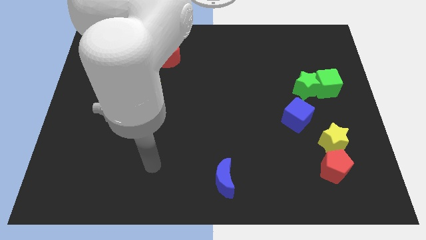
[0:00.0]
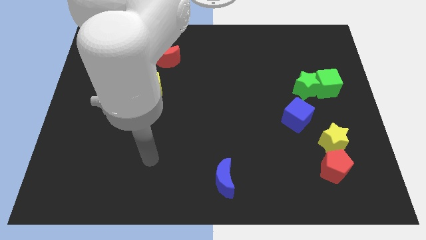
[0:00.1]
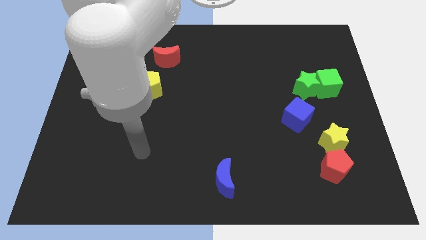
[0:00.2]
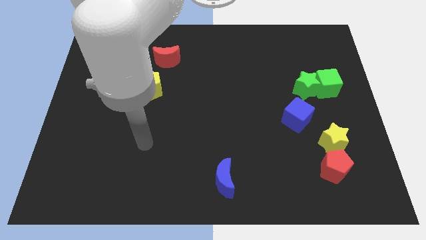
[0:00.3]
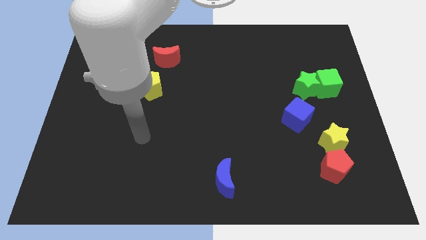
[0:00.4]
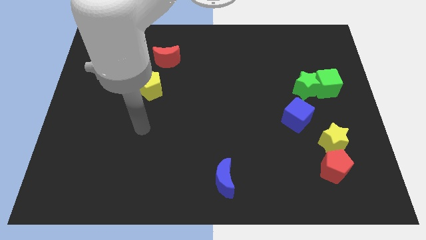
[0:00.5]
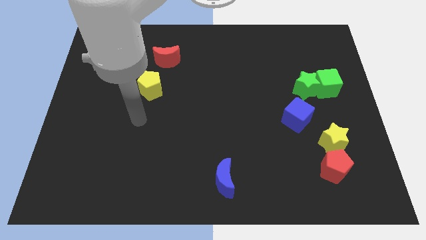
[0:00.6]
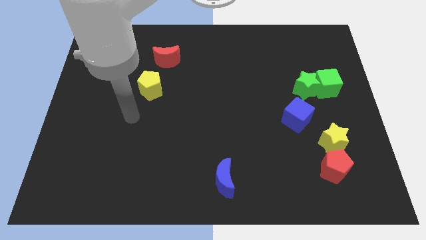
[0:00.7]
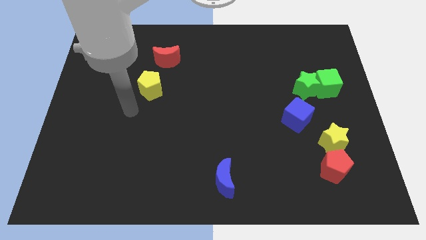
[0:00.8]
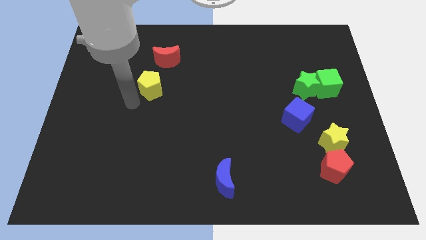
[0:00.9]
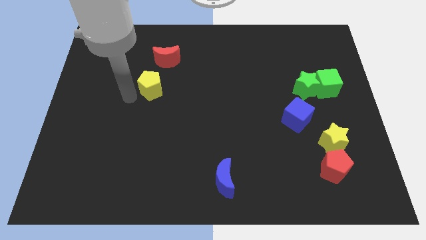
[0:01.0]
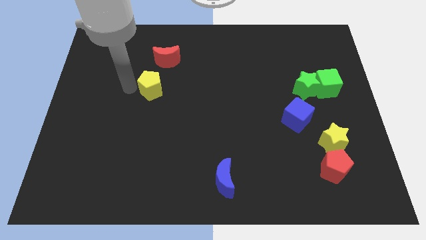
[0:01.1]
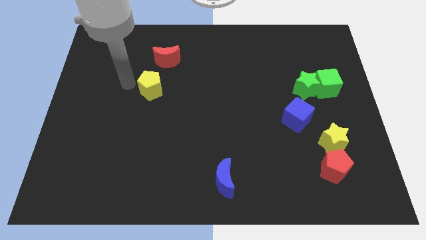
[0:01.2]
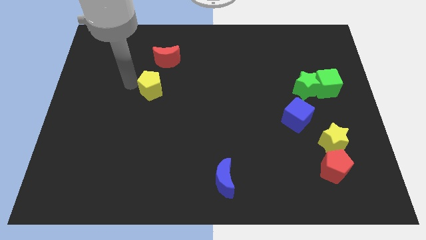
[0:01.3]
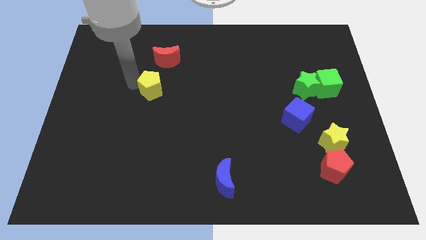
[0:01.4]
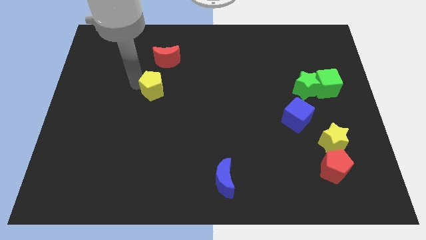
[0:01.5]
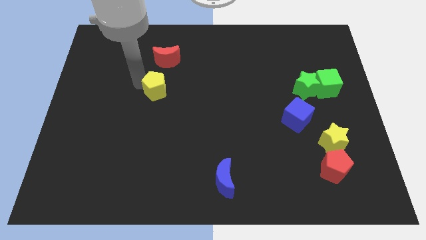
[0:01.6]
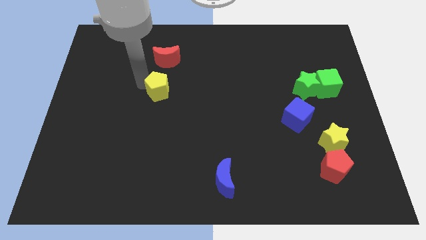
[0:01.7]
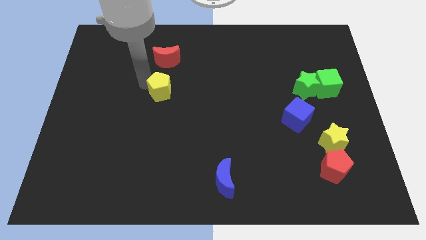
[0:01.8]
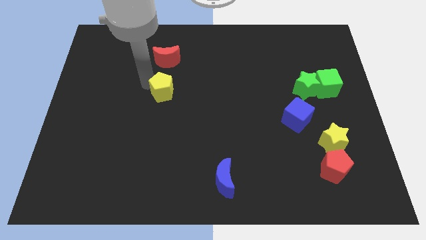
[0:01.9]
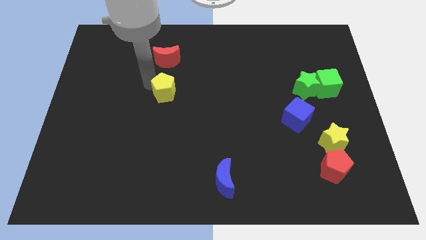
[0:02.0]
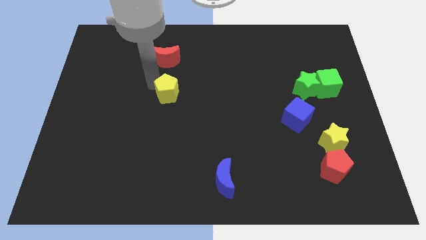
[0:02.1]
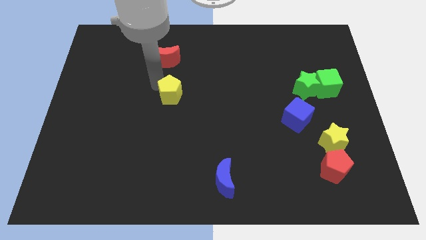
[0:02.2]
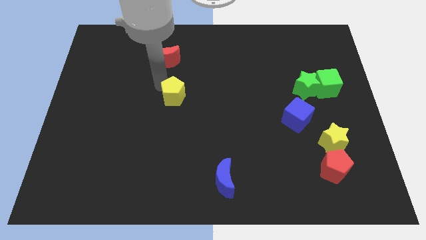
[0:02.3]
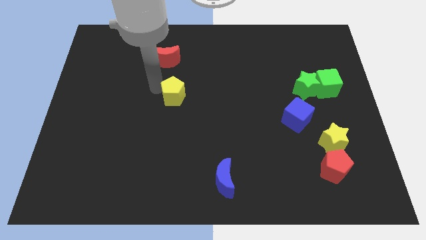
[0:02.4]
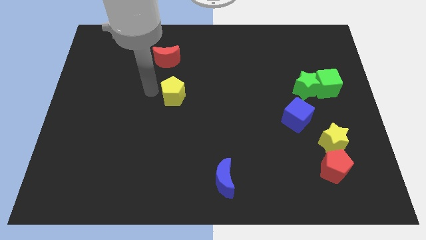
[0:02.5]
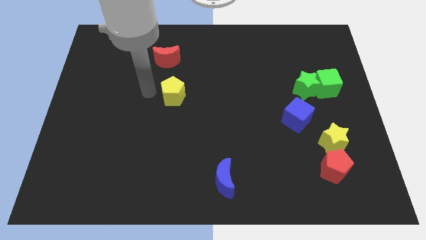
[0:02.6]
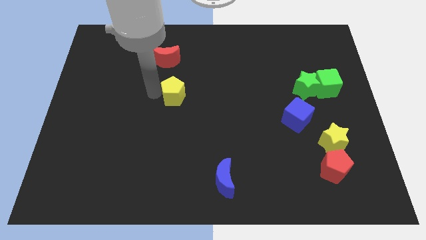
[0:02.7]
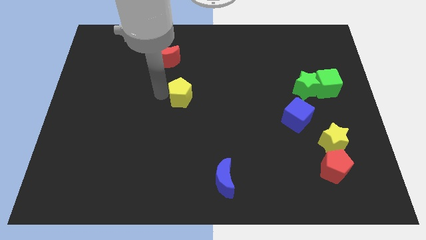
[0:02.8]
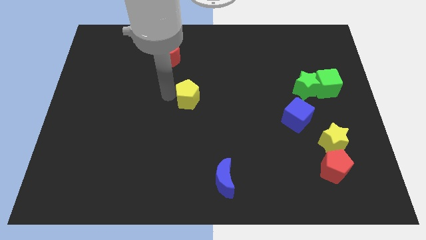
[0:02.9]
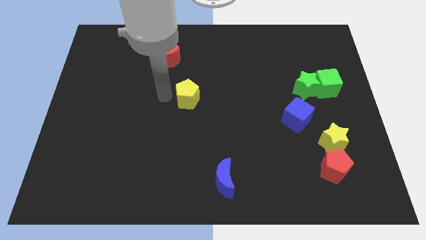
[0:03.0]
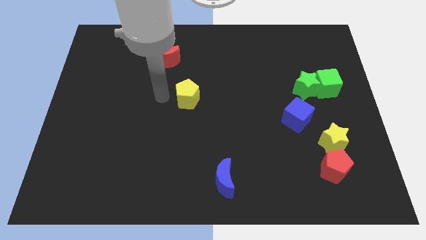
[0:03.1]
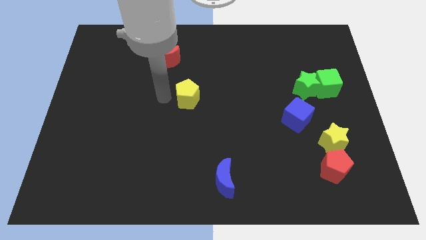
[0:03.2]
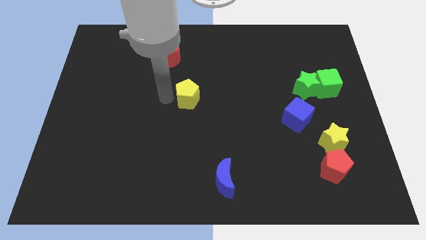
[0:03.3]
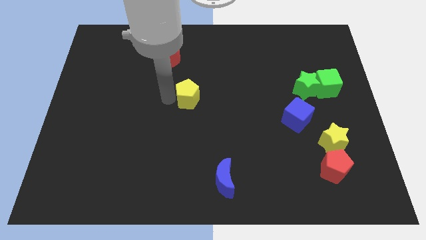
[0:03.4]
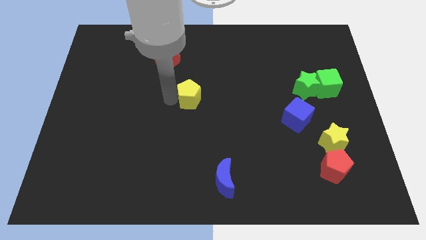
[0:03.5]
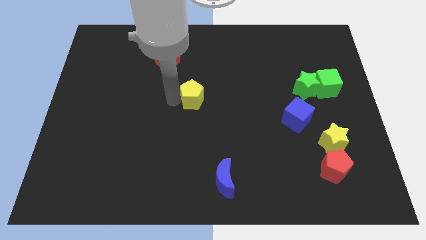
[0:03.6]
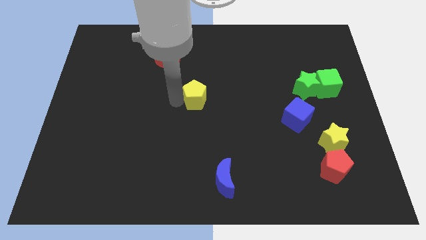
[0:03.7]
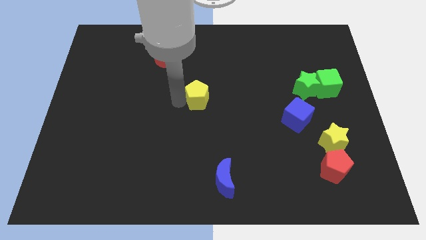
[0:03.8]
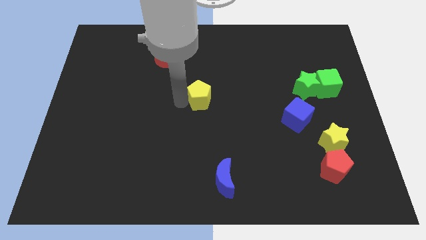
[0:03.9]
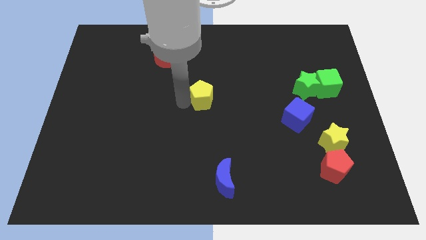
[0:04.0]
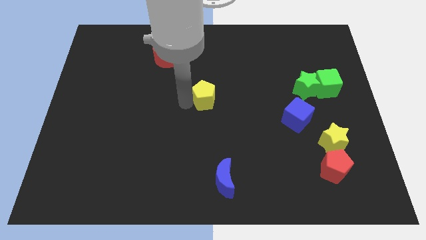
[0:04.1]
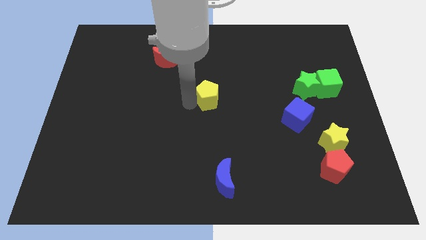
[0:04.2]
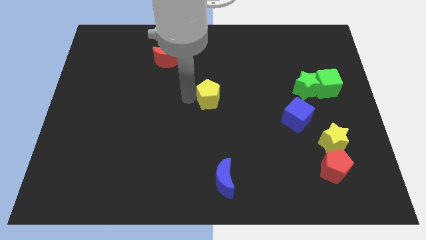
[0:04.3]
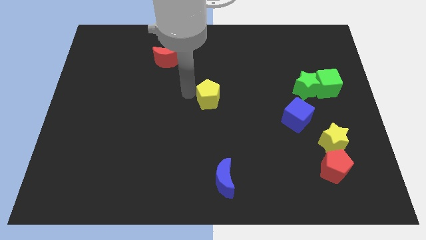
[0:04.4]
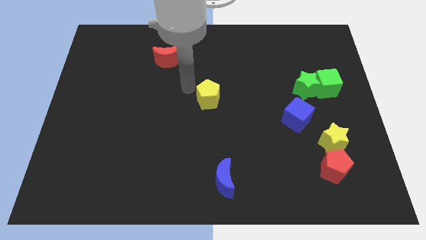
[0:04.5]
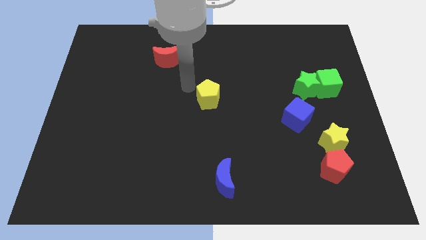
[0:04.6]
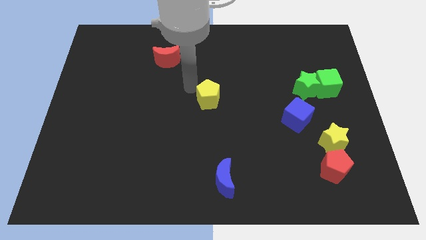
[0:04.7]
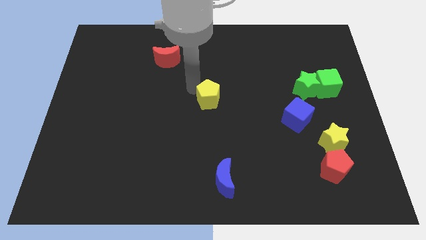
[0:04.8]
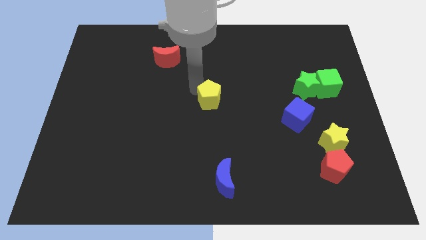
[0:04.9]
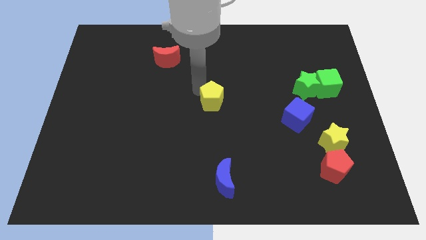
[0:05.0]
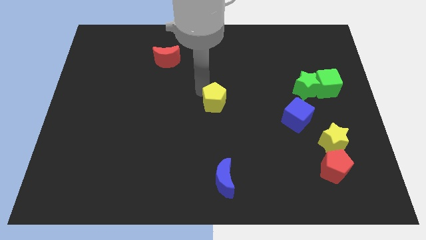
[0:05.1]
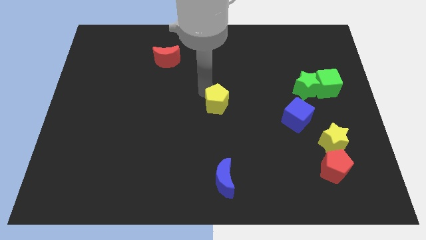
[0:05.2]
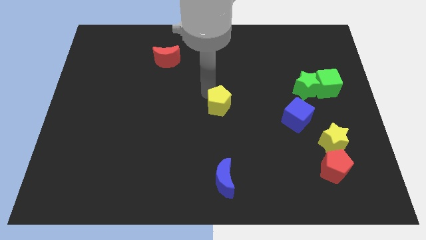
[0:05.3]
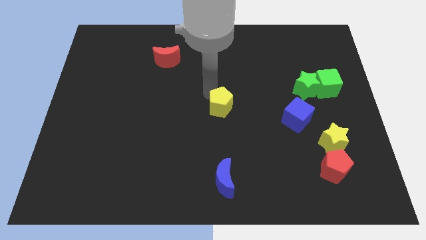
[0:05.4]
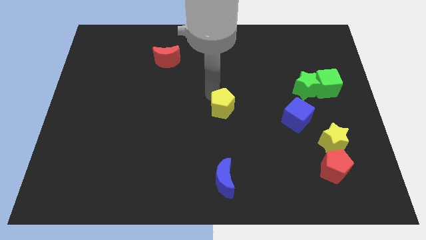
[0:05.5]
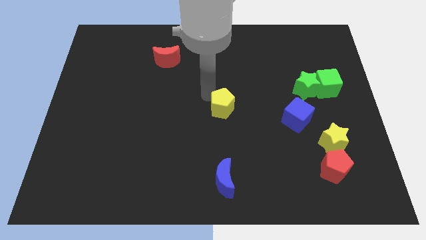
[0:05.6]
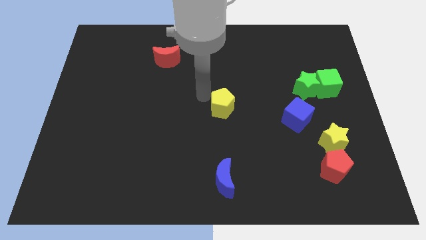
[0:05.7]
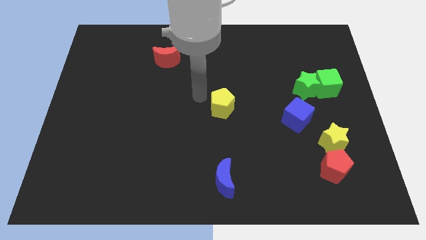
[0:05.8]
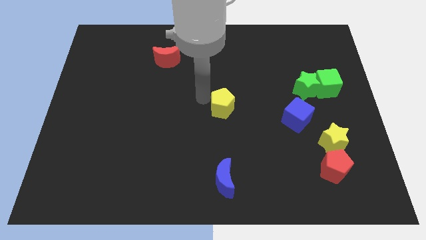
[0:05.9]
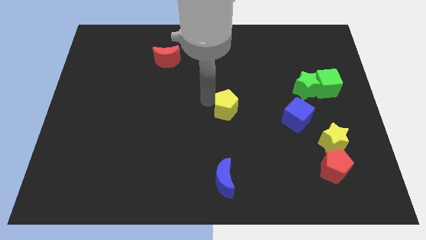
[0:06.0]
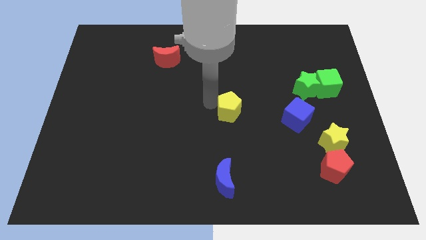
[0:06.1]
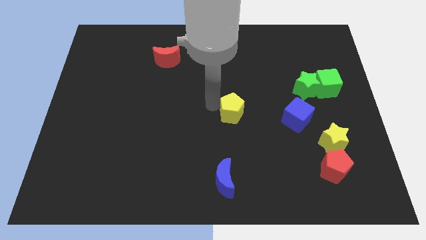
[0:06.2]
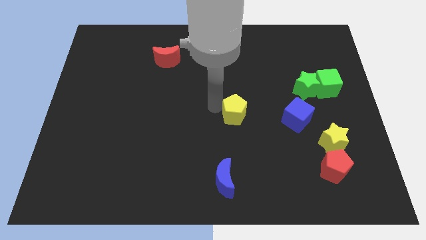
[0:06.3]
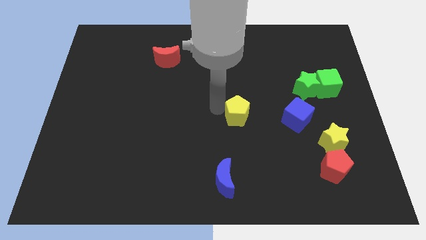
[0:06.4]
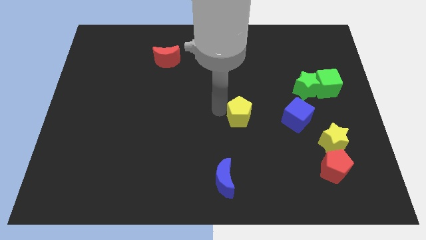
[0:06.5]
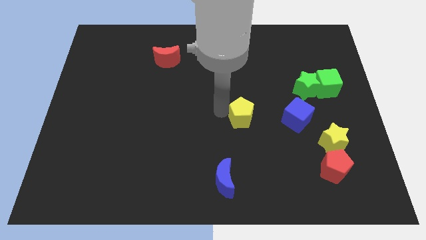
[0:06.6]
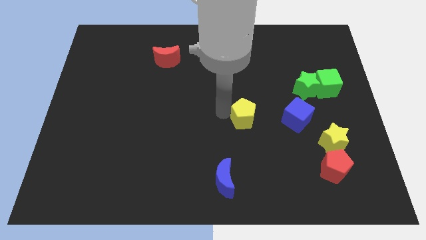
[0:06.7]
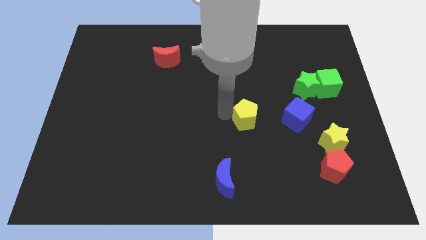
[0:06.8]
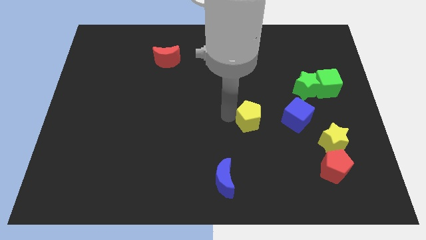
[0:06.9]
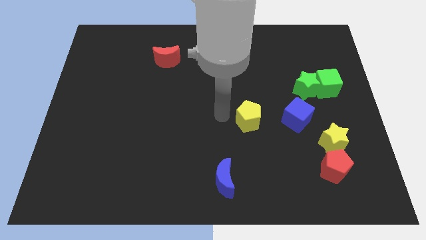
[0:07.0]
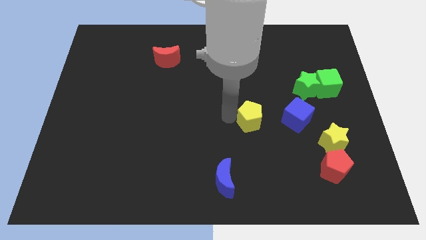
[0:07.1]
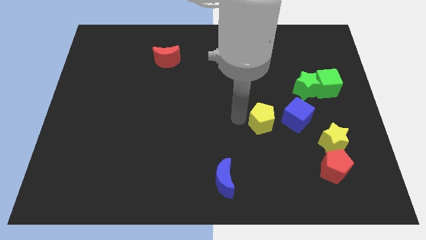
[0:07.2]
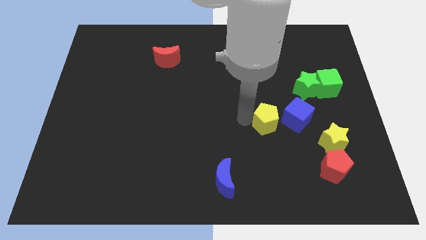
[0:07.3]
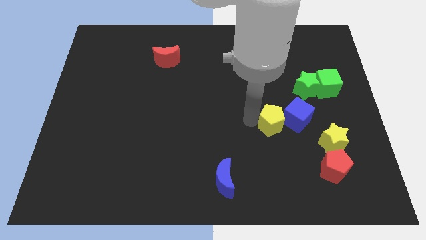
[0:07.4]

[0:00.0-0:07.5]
put the yellow pentagon next to the blue cube
